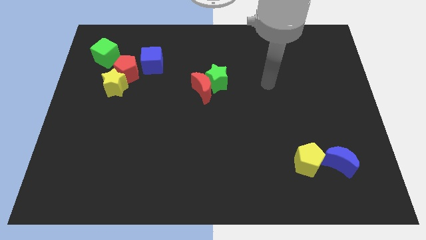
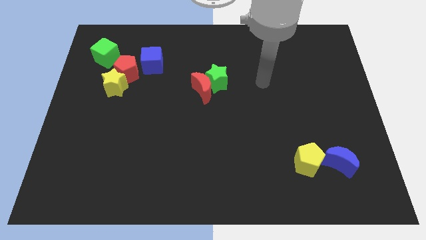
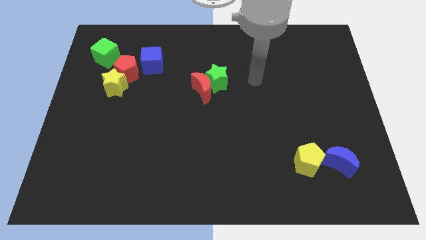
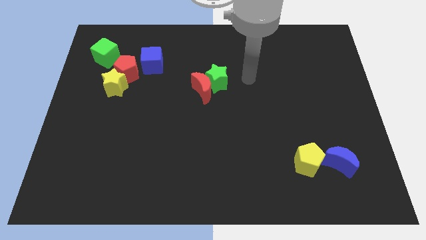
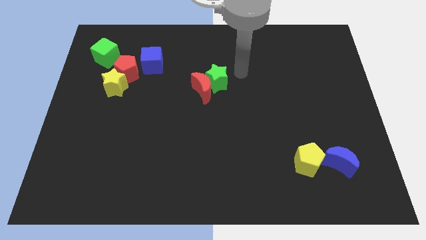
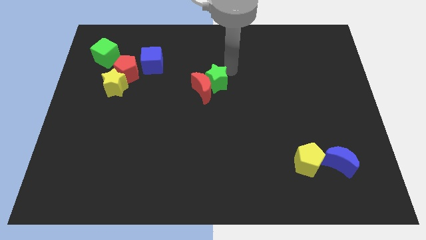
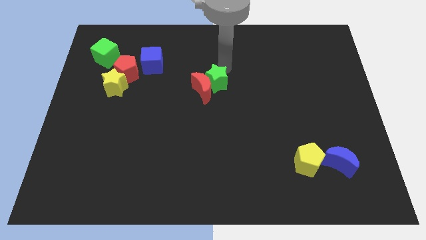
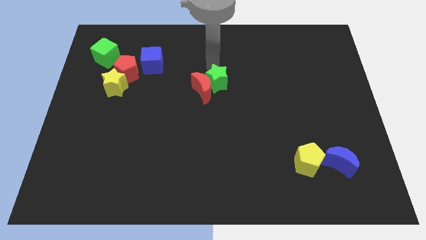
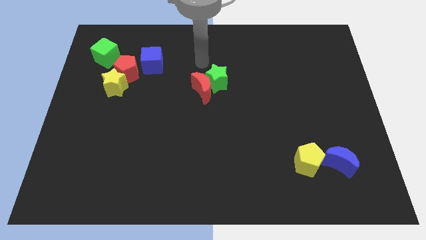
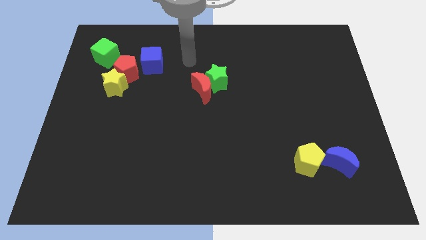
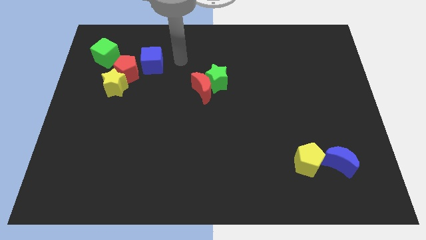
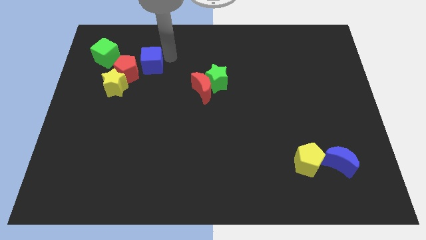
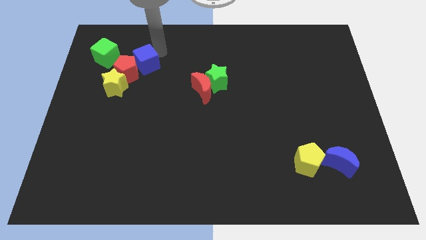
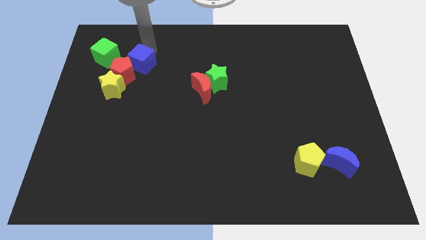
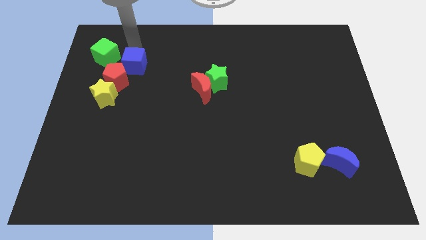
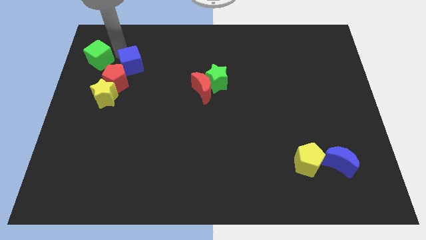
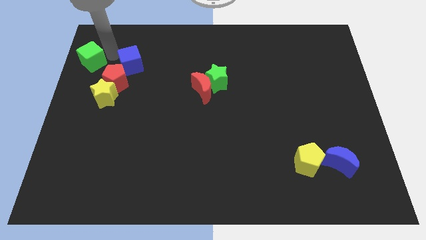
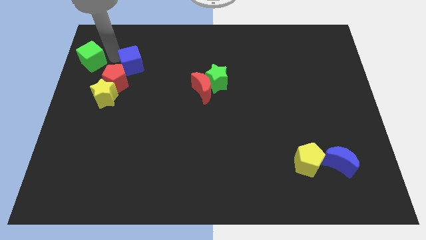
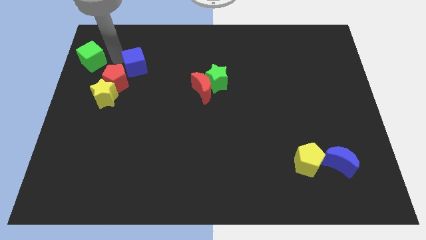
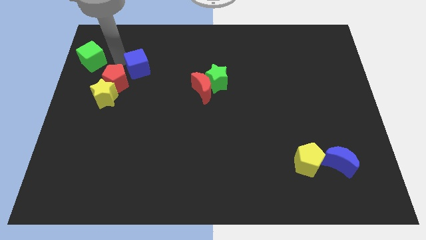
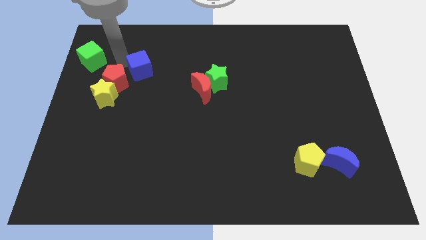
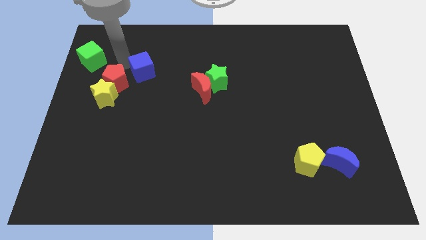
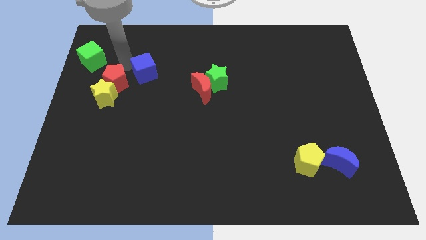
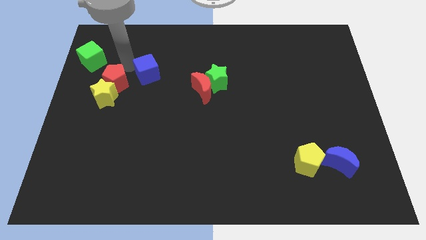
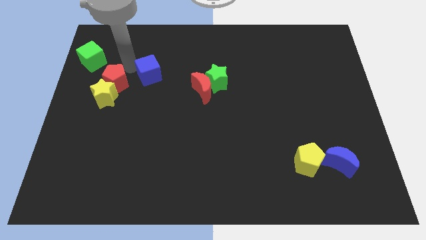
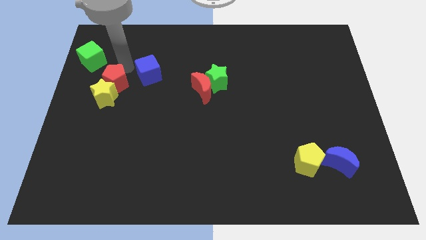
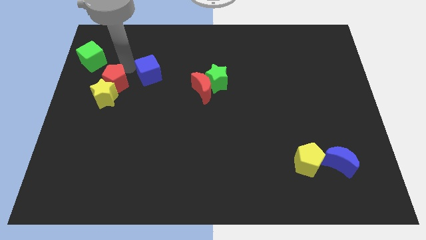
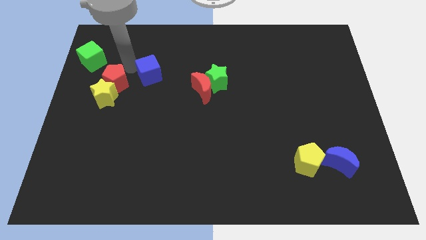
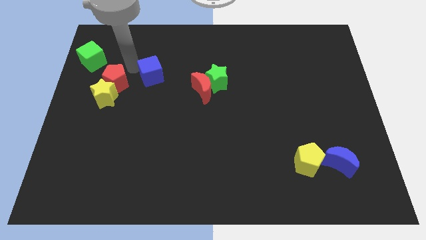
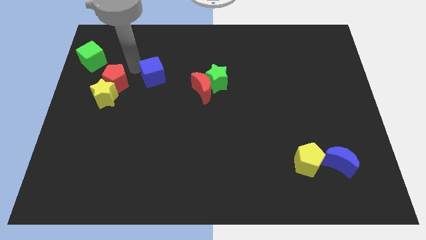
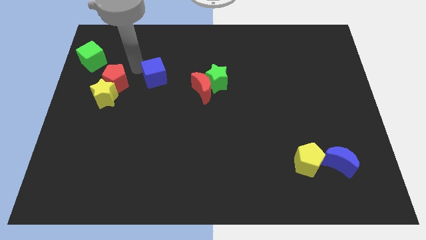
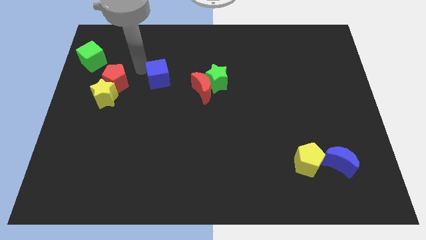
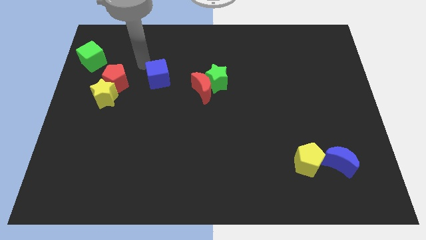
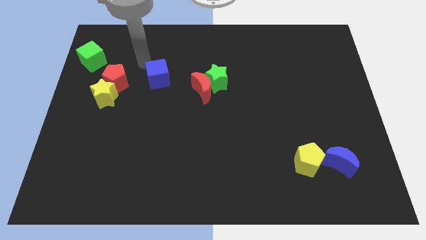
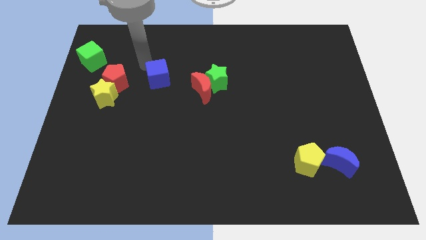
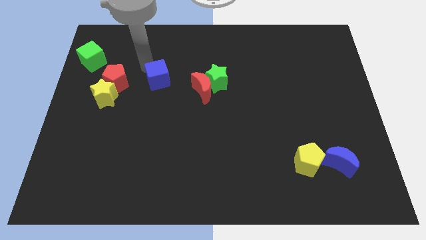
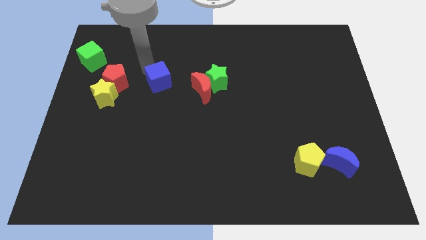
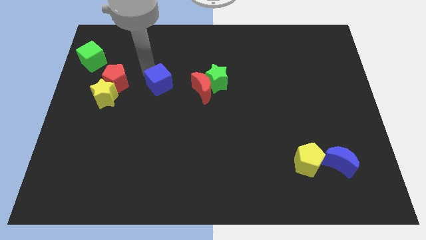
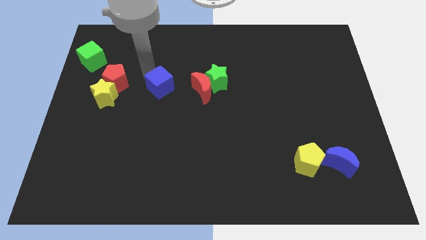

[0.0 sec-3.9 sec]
move the blue cube a little bit downwards and to the right

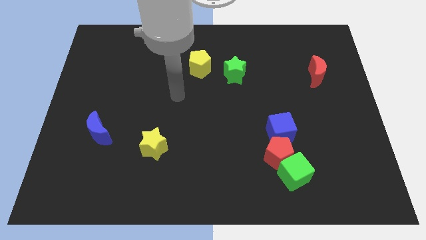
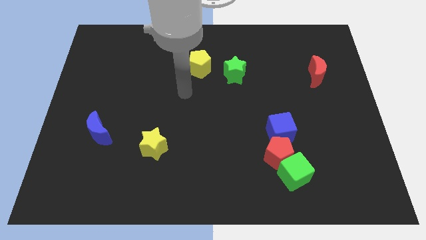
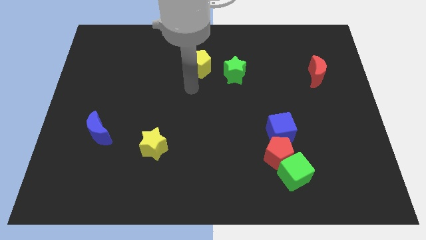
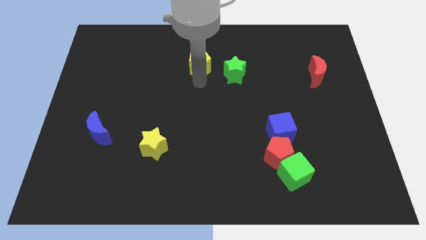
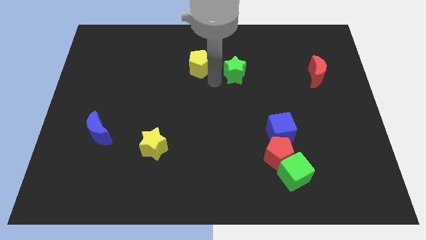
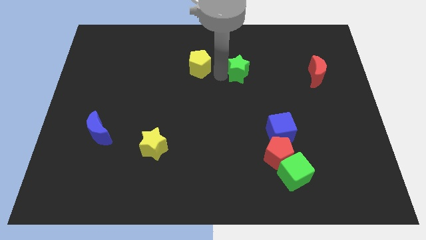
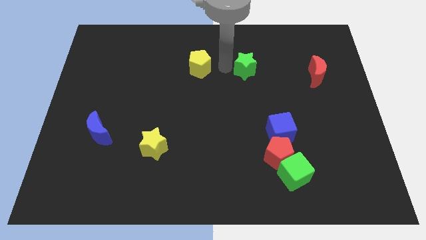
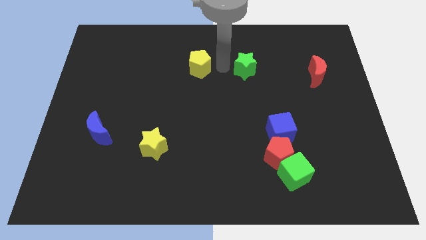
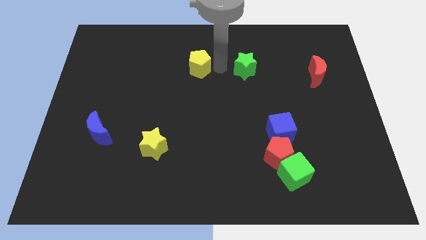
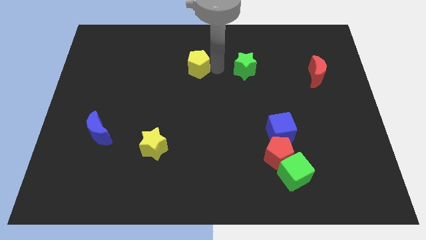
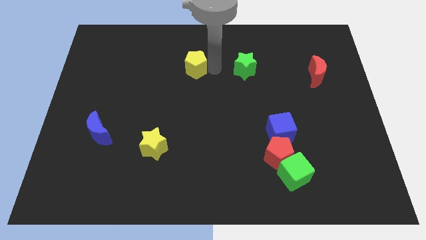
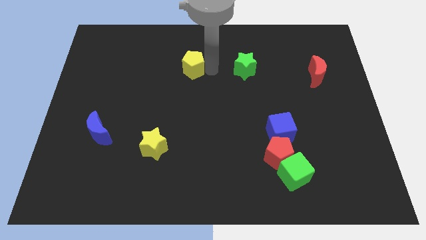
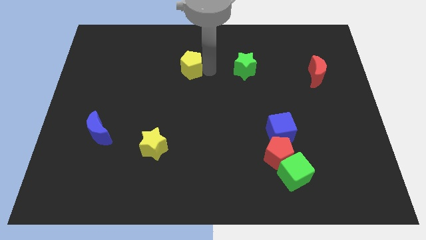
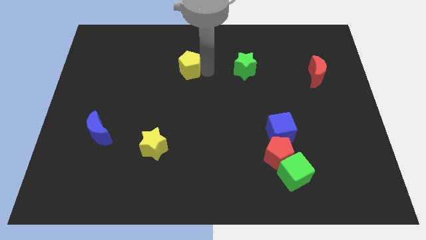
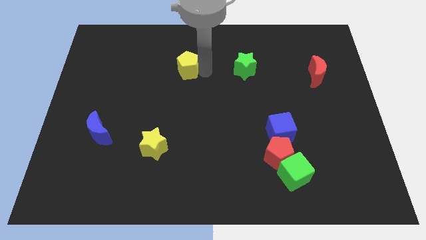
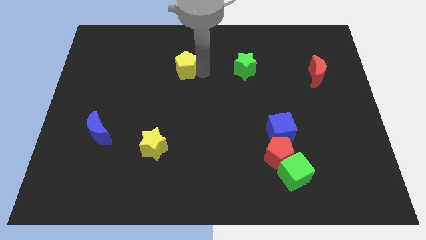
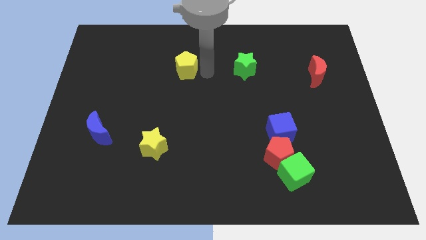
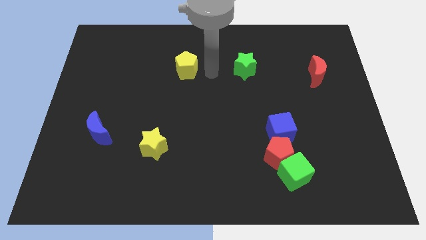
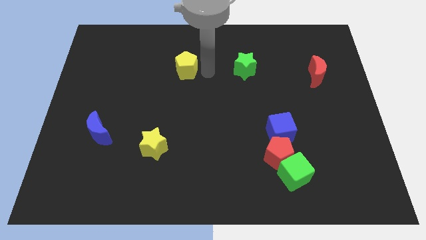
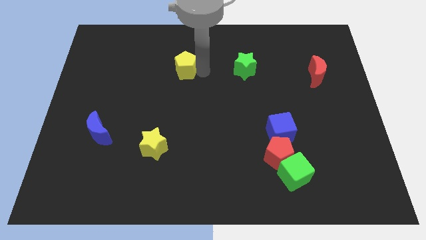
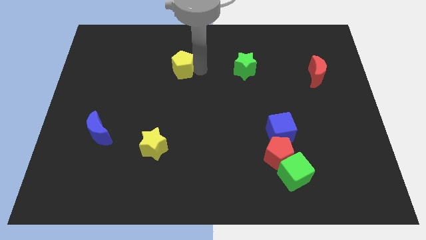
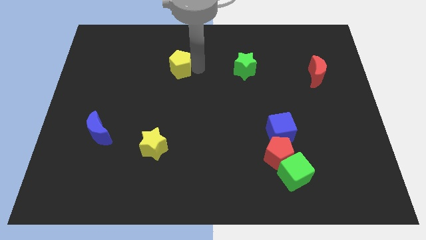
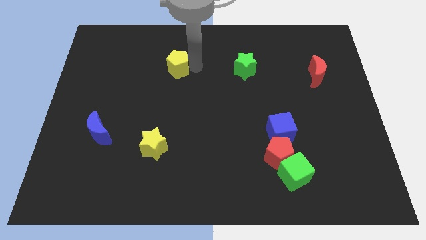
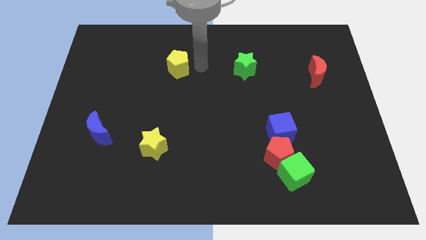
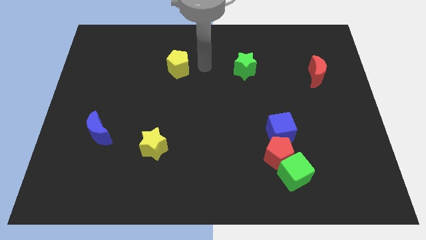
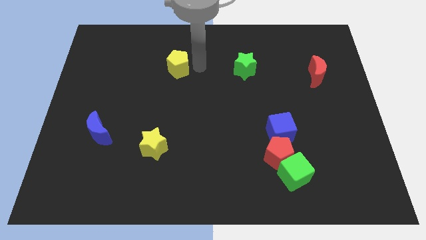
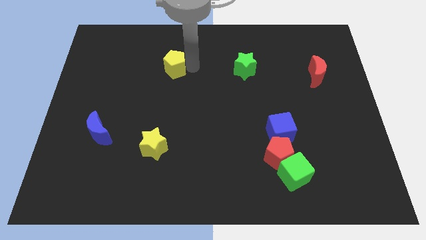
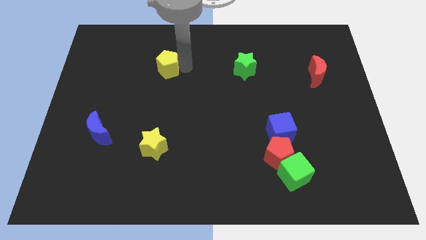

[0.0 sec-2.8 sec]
slide the yellow pentagon a little bit to the left

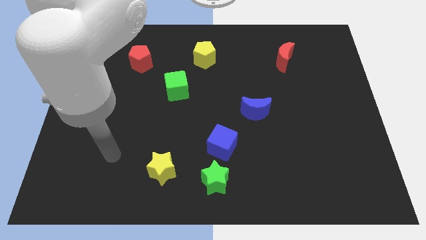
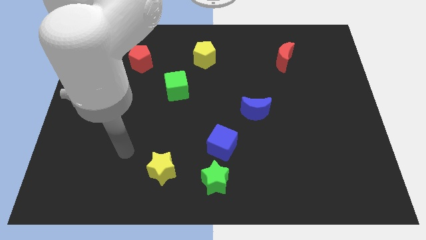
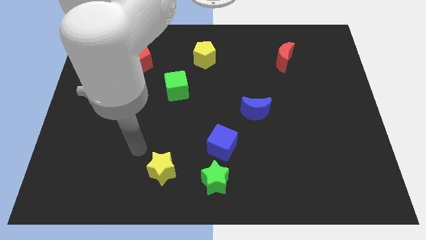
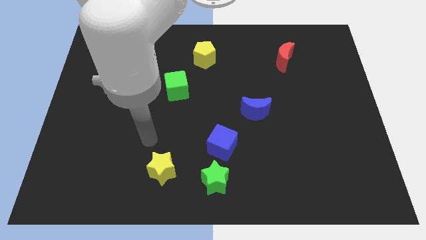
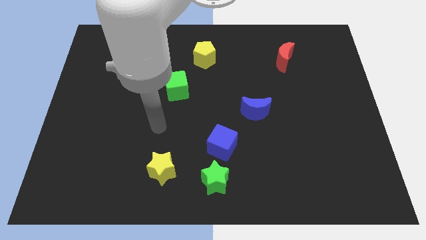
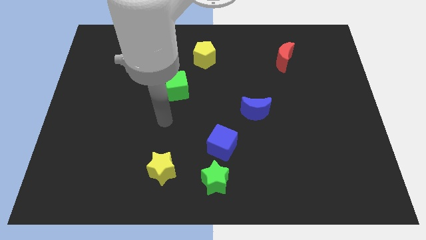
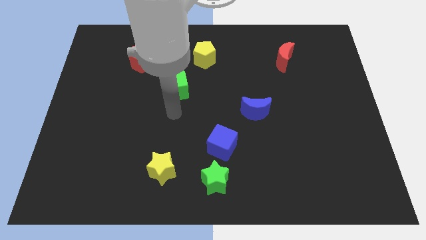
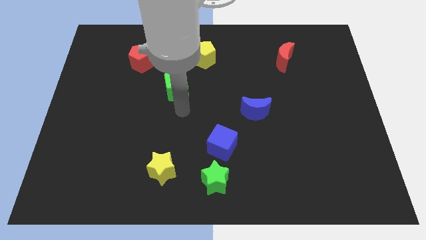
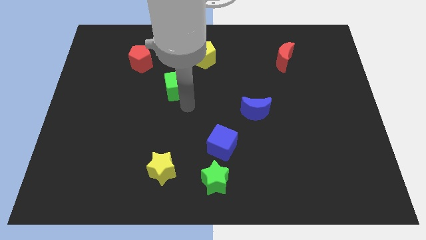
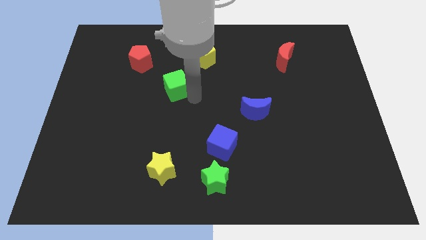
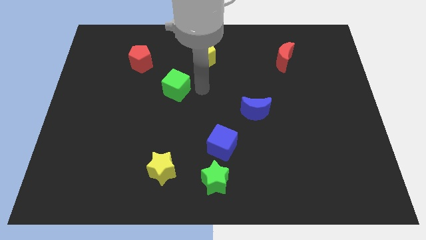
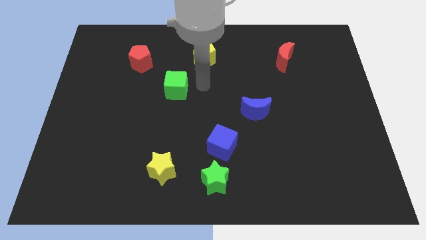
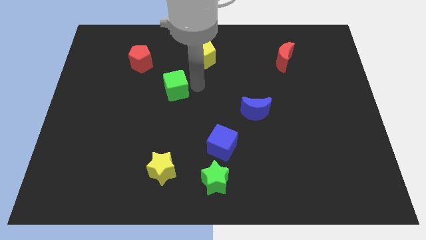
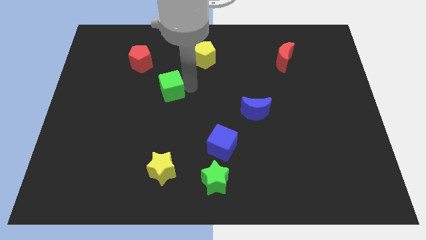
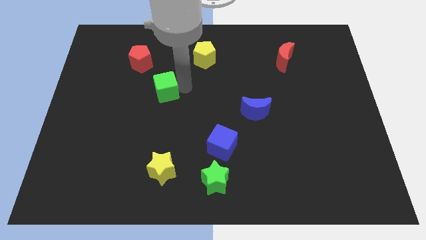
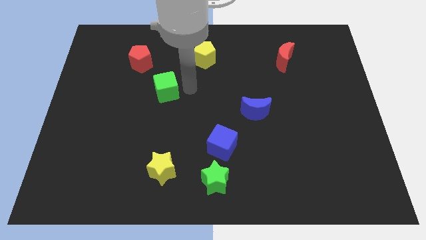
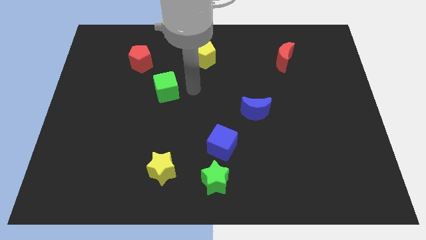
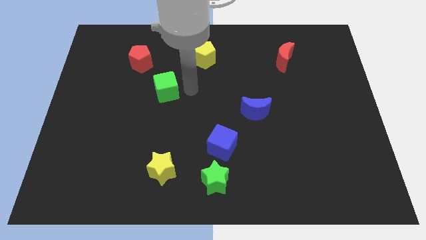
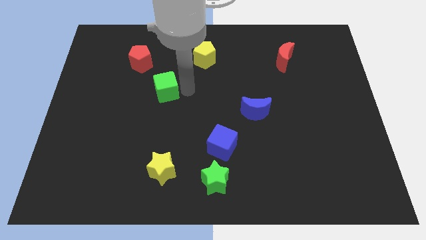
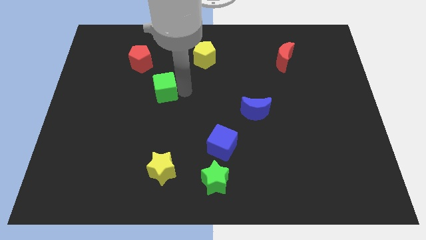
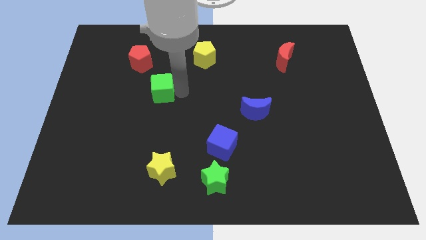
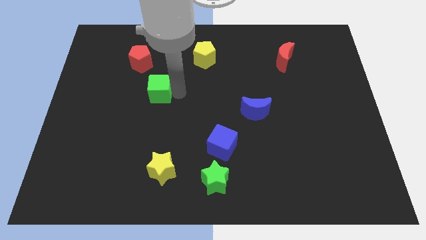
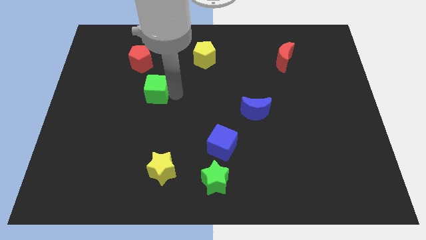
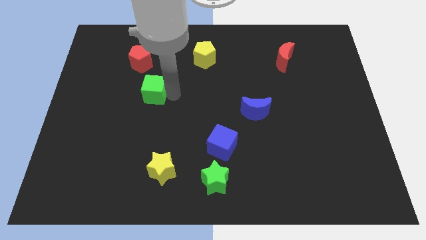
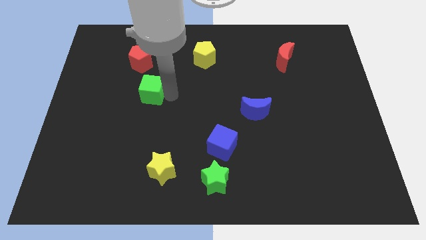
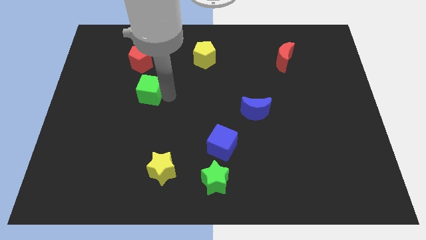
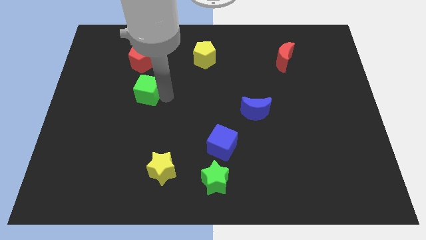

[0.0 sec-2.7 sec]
slide the green cube somewhat to the left
